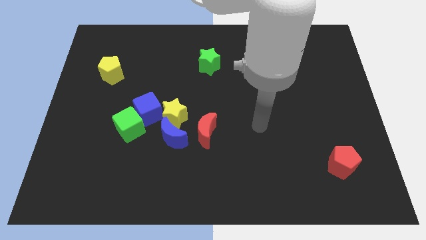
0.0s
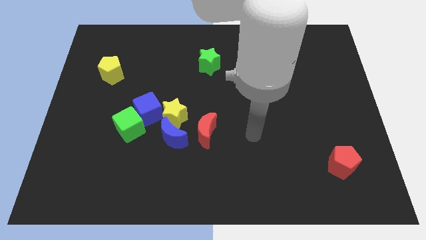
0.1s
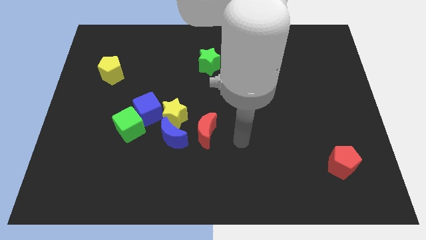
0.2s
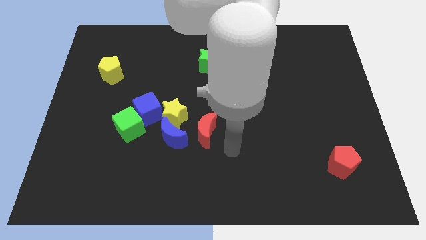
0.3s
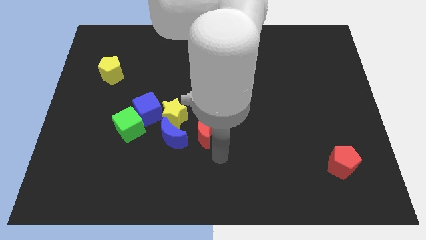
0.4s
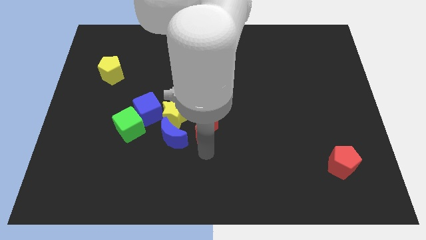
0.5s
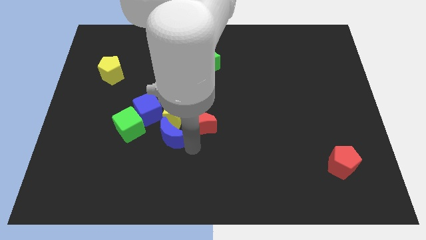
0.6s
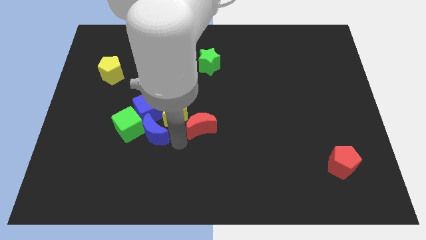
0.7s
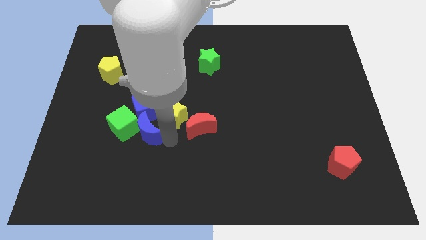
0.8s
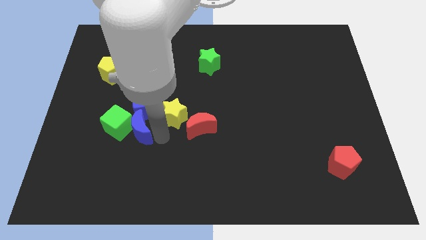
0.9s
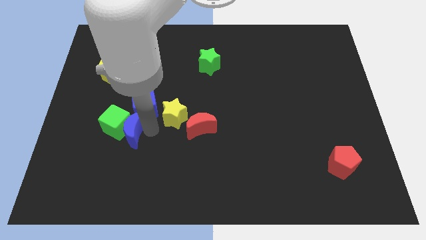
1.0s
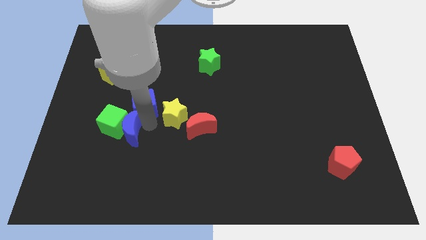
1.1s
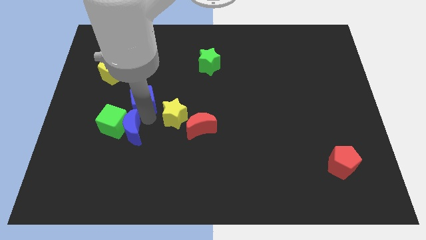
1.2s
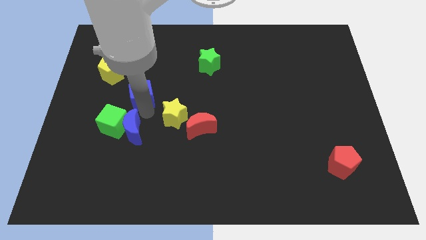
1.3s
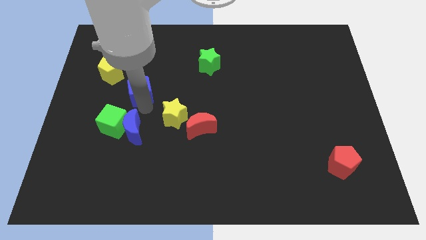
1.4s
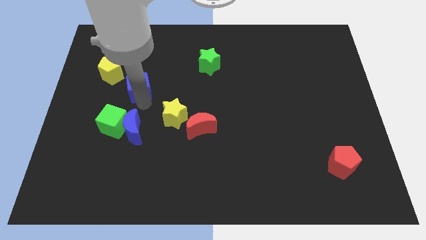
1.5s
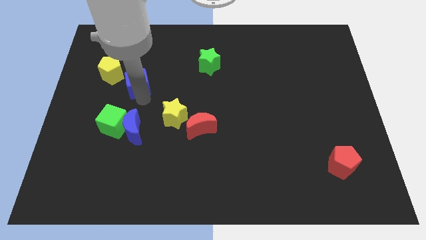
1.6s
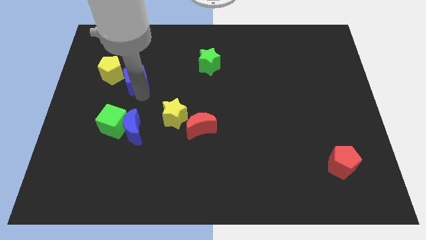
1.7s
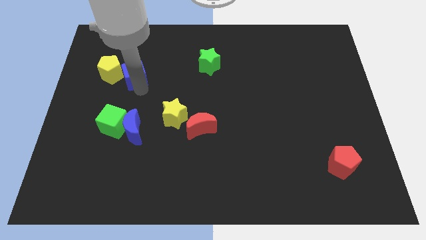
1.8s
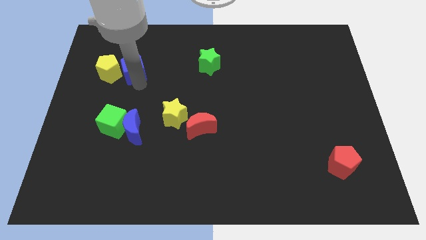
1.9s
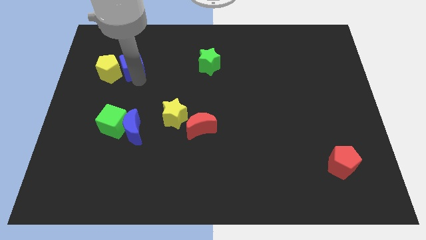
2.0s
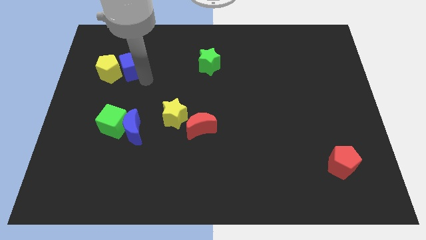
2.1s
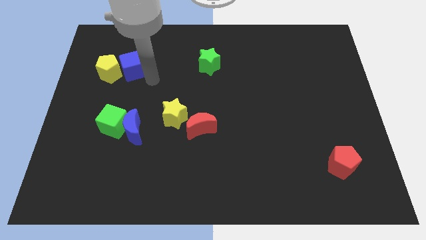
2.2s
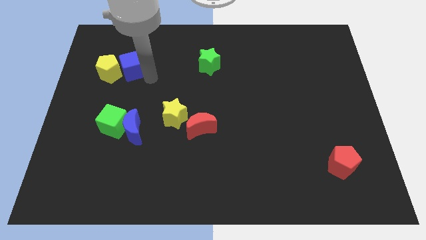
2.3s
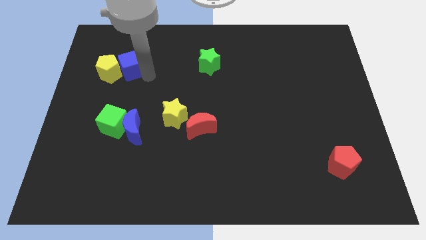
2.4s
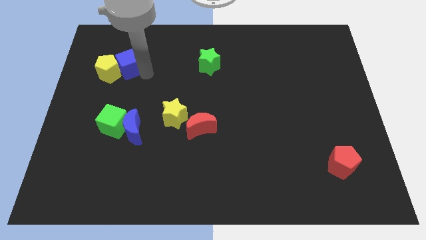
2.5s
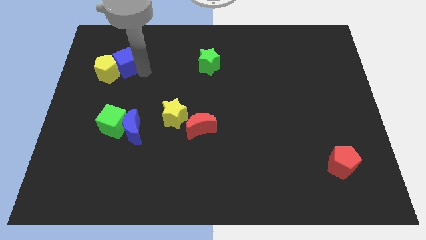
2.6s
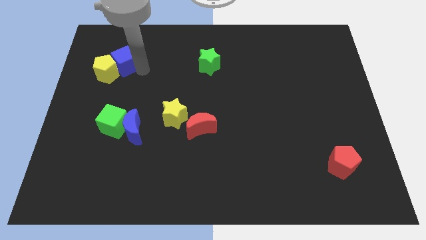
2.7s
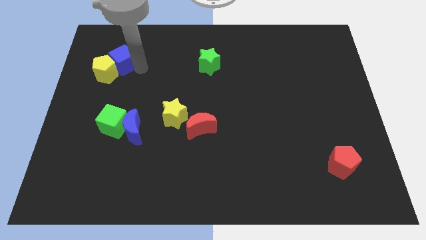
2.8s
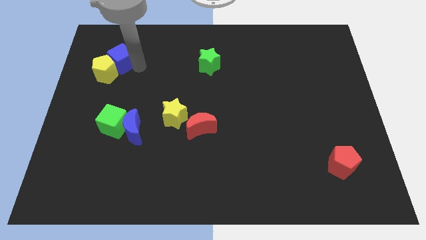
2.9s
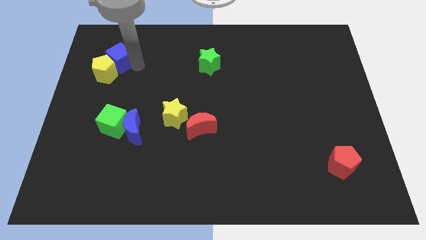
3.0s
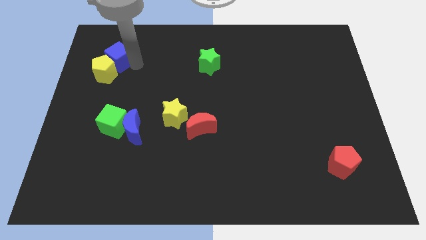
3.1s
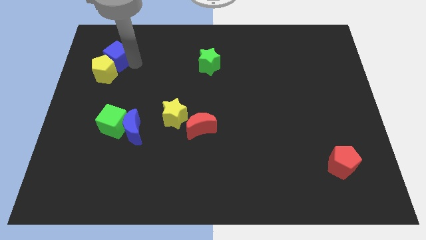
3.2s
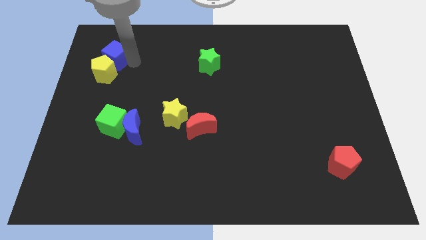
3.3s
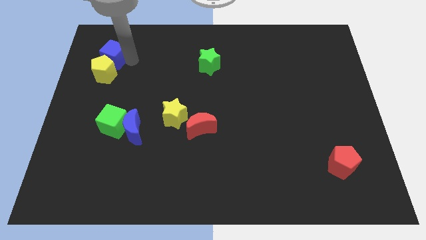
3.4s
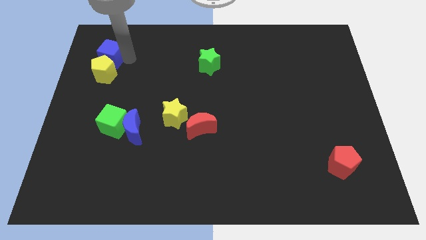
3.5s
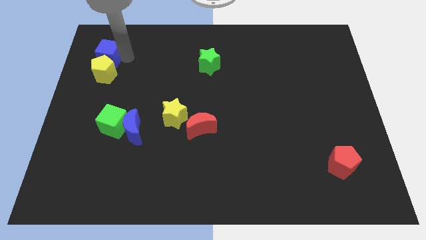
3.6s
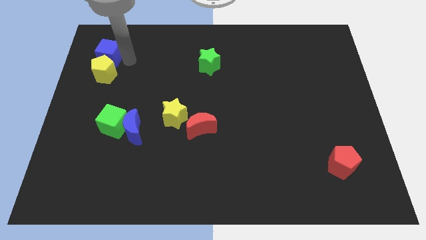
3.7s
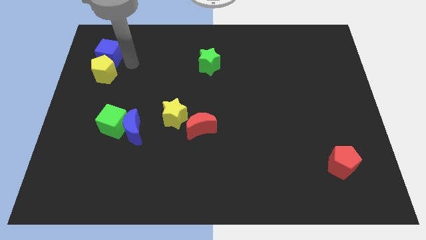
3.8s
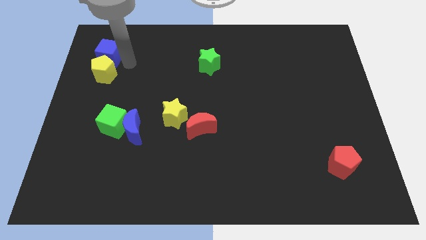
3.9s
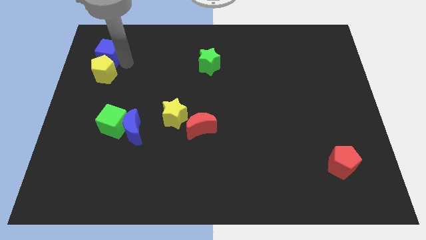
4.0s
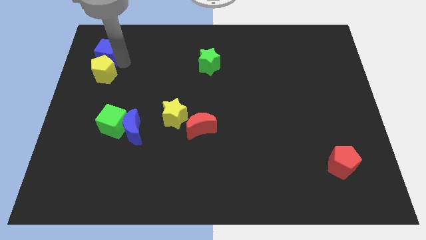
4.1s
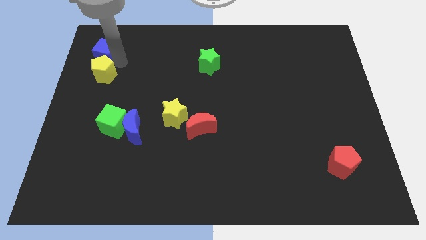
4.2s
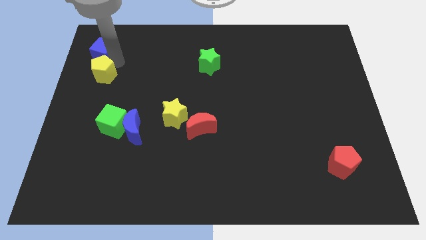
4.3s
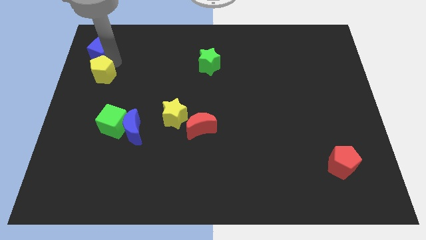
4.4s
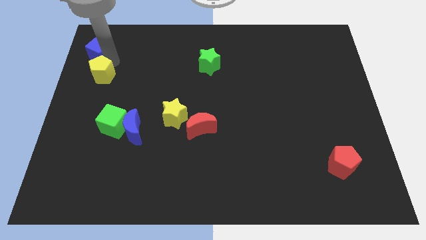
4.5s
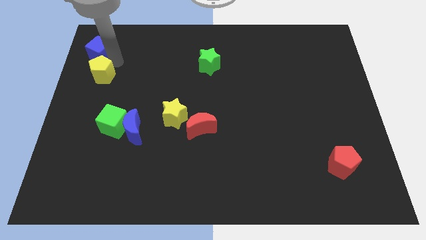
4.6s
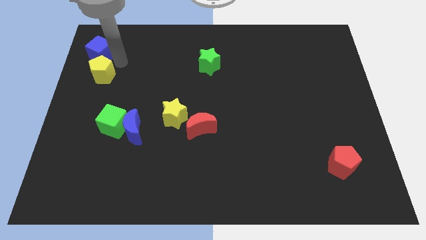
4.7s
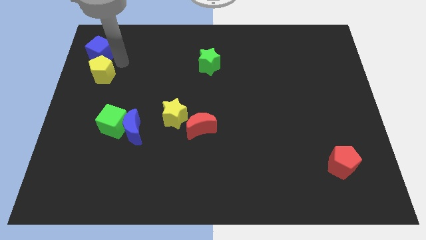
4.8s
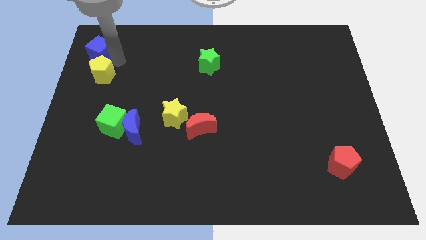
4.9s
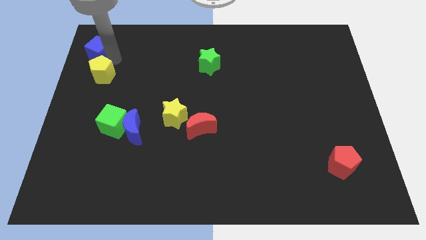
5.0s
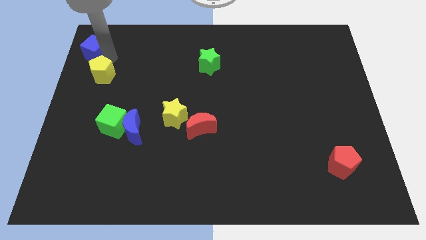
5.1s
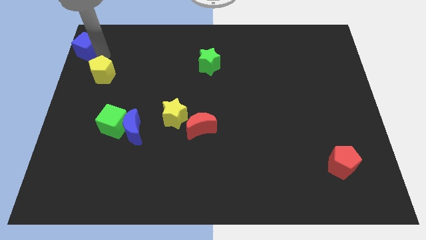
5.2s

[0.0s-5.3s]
move the blue cube to the top left corner
